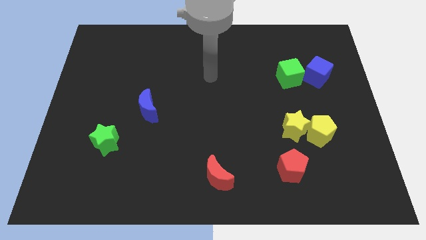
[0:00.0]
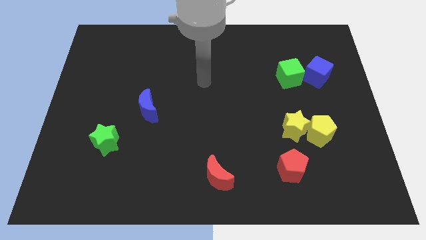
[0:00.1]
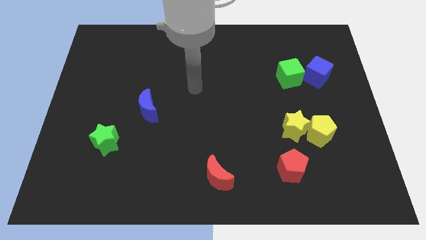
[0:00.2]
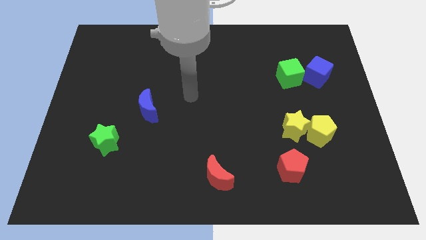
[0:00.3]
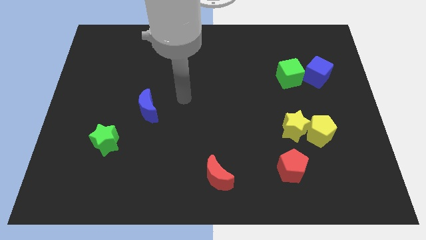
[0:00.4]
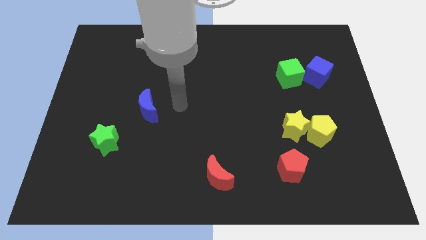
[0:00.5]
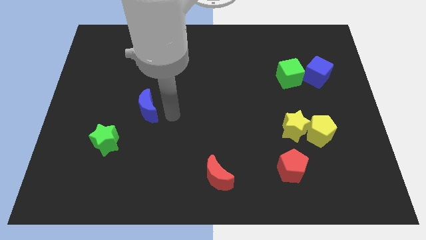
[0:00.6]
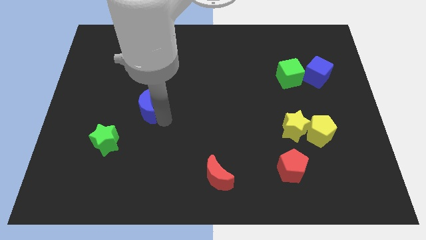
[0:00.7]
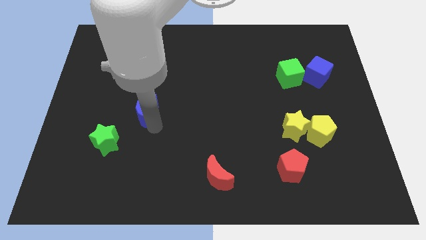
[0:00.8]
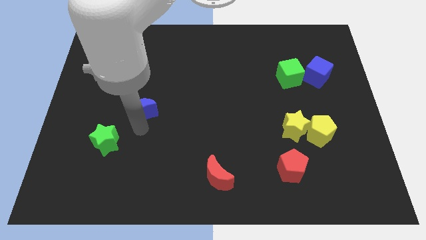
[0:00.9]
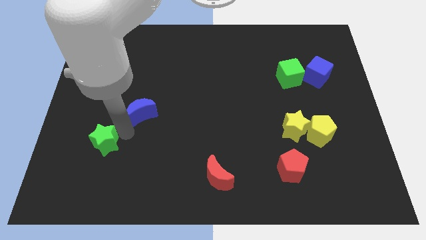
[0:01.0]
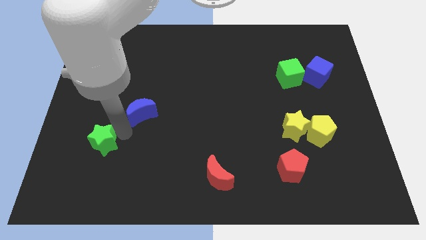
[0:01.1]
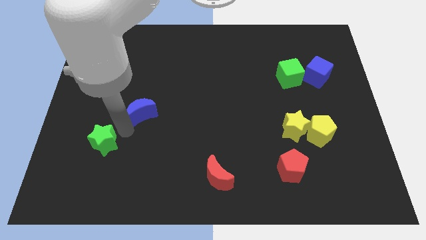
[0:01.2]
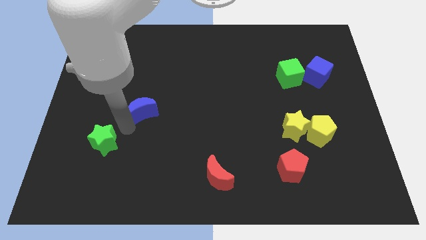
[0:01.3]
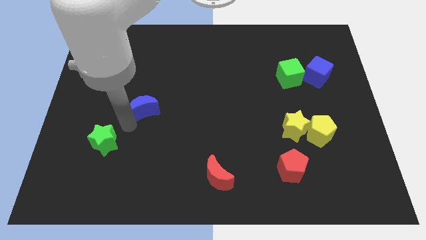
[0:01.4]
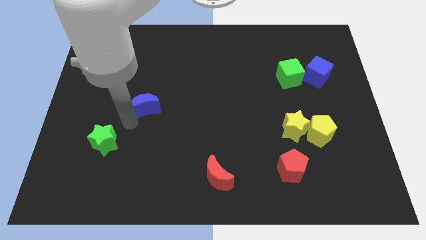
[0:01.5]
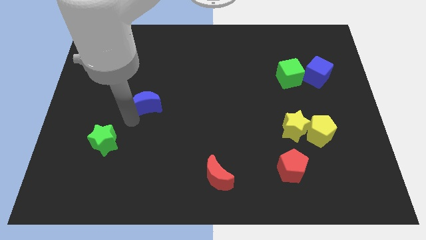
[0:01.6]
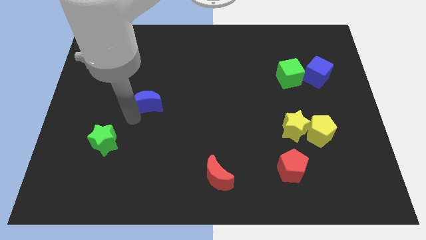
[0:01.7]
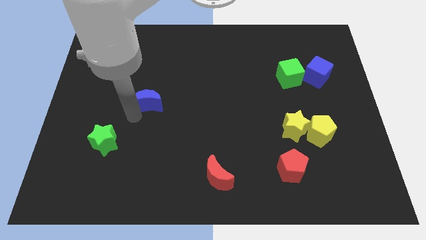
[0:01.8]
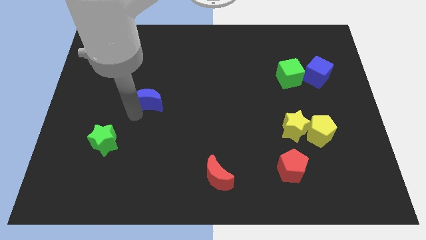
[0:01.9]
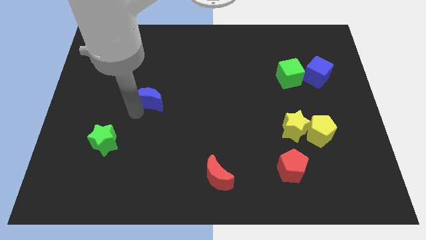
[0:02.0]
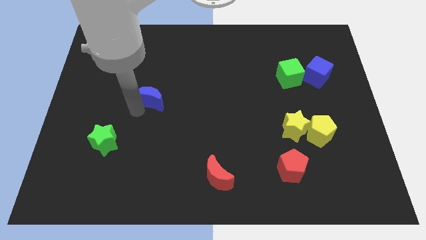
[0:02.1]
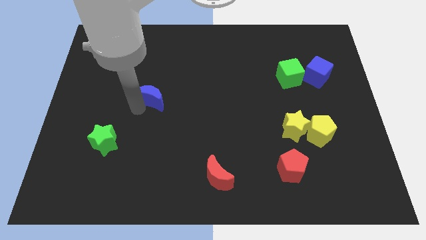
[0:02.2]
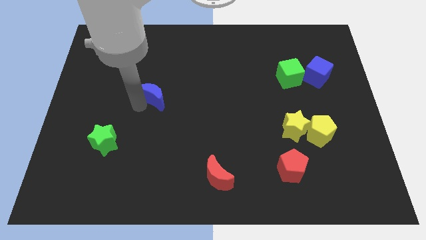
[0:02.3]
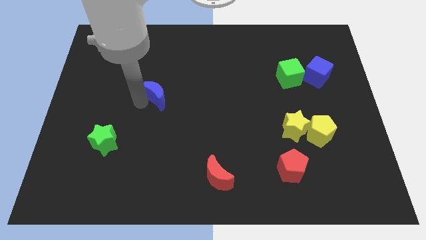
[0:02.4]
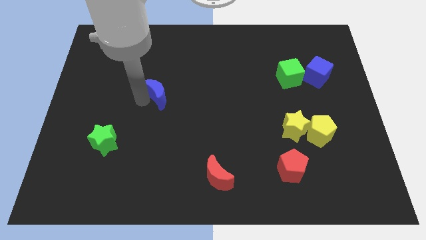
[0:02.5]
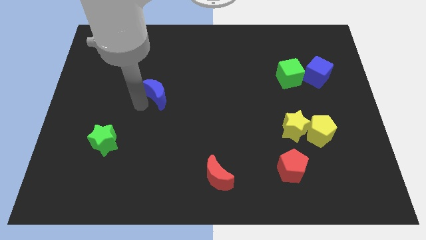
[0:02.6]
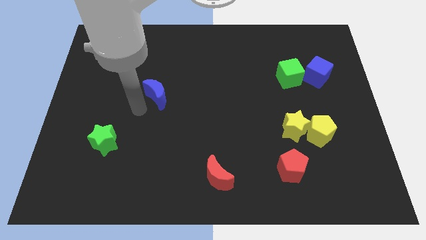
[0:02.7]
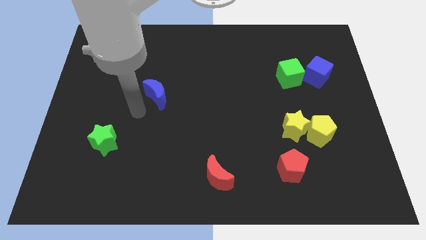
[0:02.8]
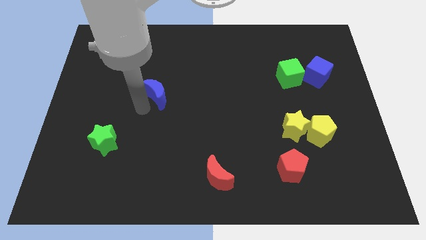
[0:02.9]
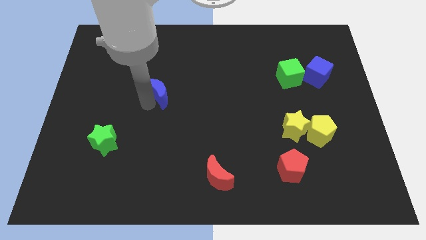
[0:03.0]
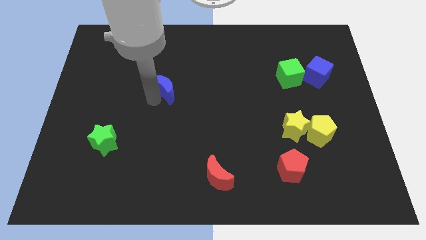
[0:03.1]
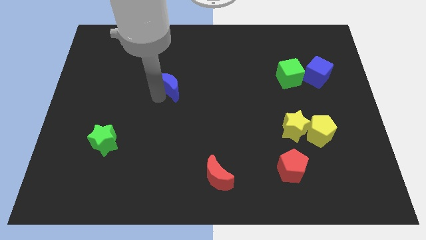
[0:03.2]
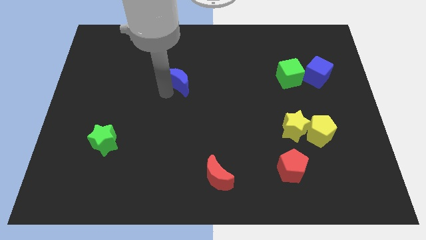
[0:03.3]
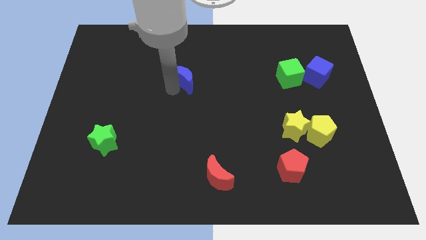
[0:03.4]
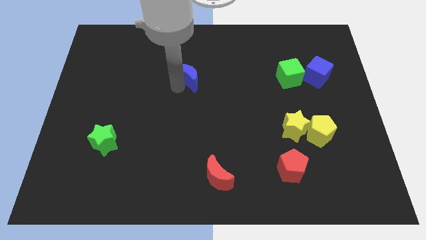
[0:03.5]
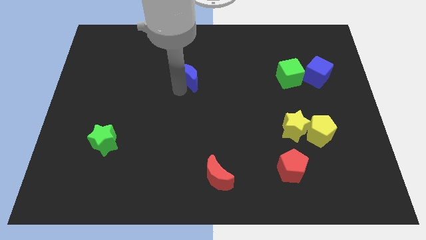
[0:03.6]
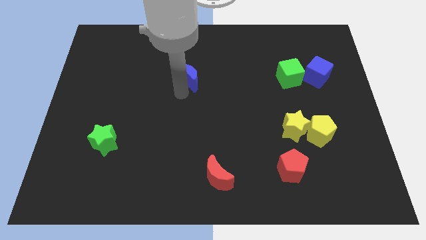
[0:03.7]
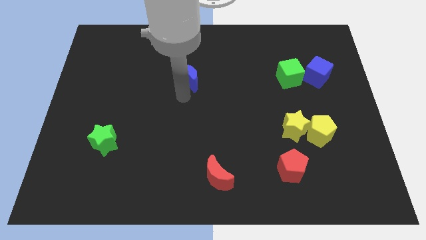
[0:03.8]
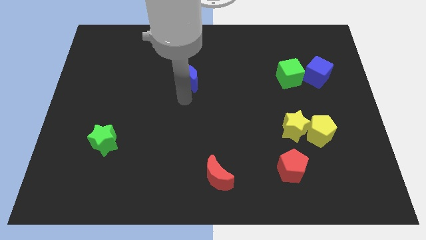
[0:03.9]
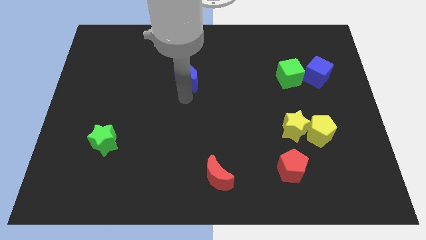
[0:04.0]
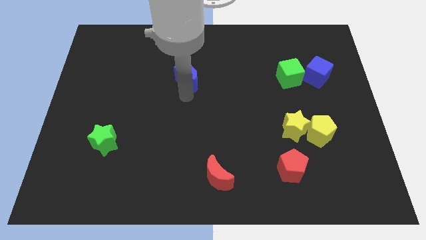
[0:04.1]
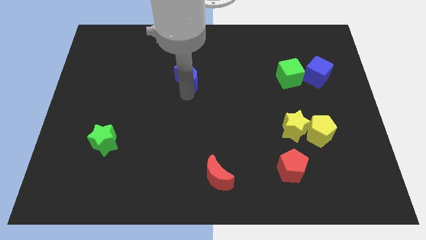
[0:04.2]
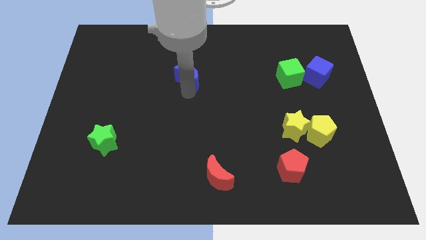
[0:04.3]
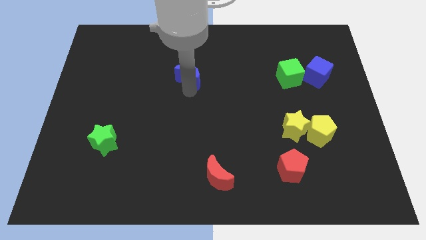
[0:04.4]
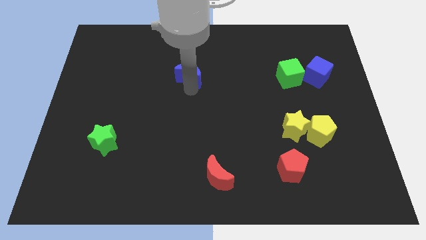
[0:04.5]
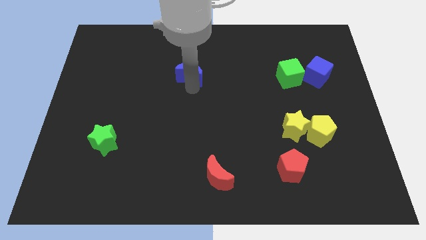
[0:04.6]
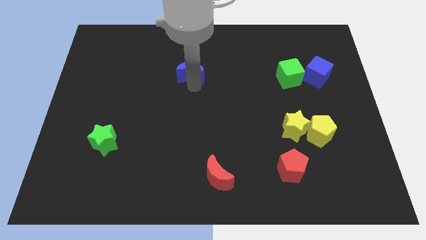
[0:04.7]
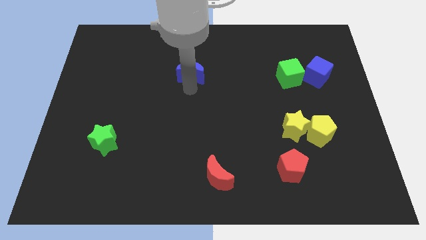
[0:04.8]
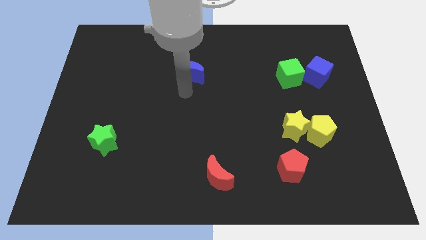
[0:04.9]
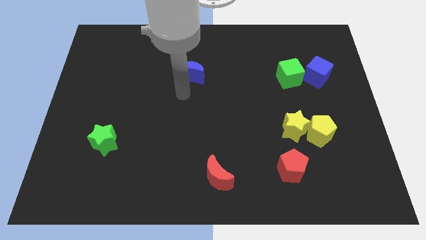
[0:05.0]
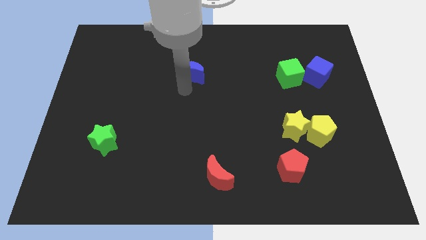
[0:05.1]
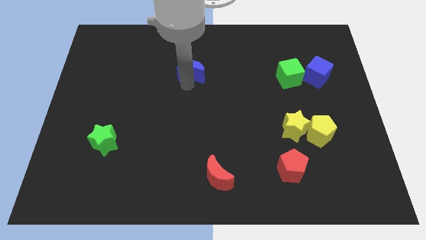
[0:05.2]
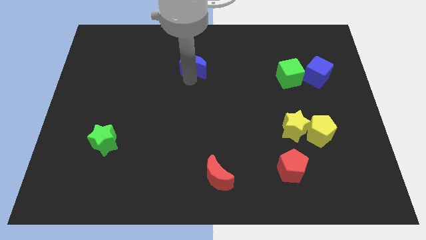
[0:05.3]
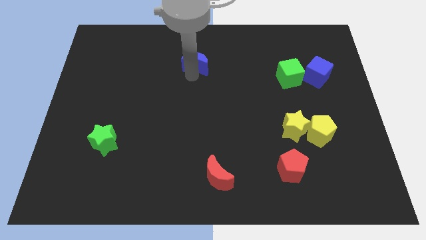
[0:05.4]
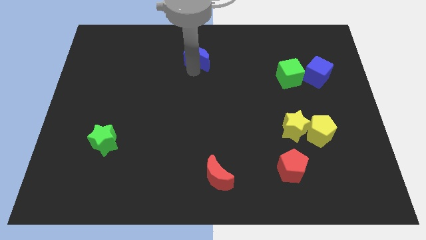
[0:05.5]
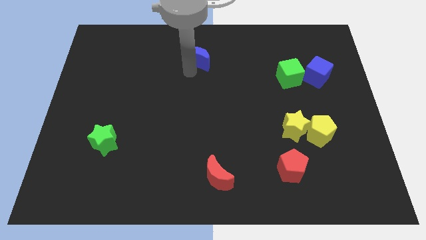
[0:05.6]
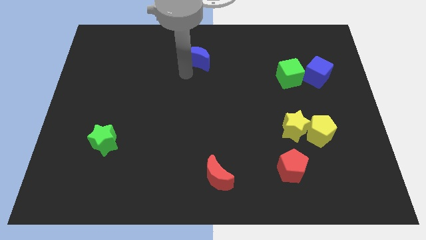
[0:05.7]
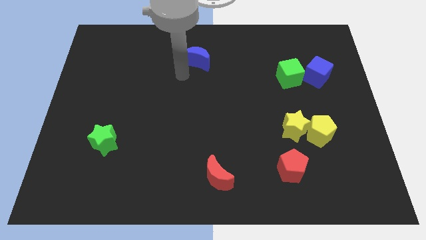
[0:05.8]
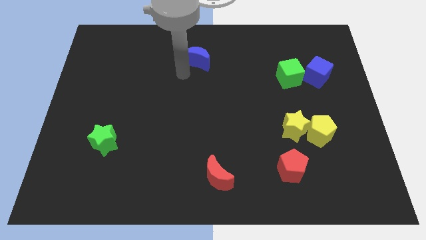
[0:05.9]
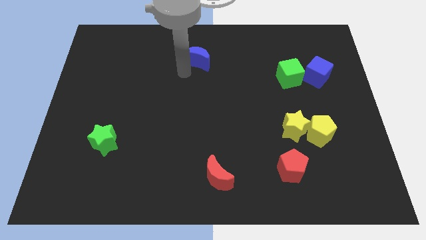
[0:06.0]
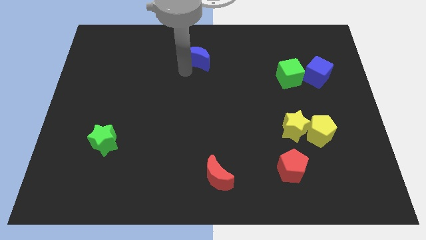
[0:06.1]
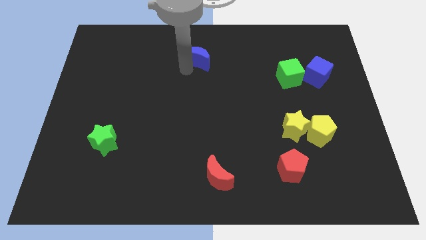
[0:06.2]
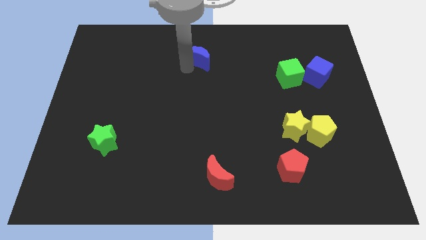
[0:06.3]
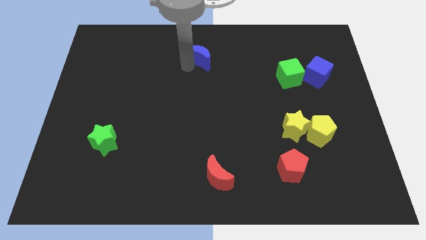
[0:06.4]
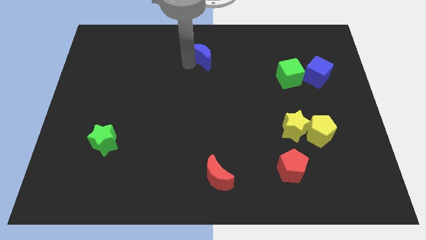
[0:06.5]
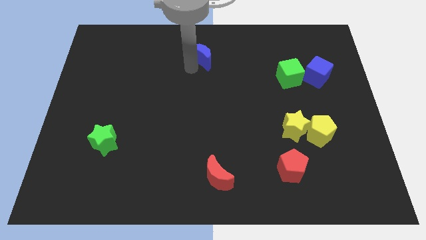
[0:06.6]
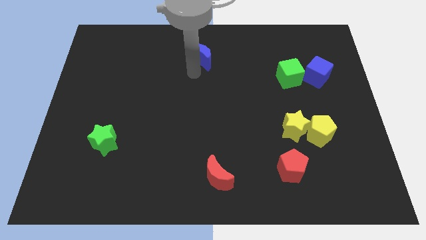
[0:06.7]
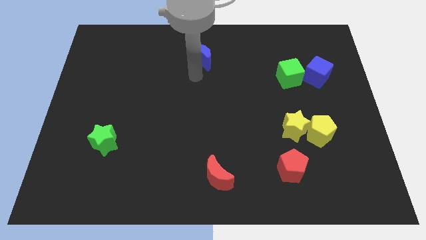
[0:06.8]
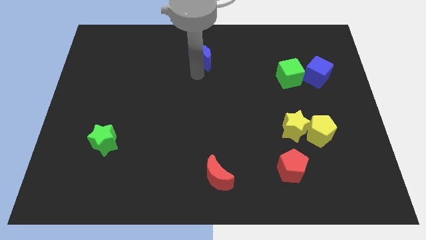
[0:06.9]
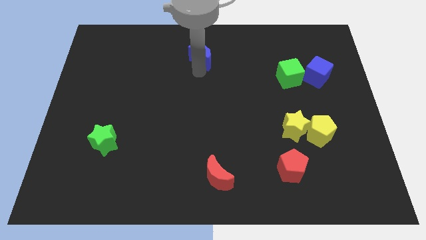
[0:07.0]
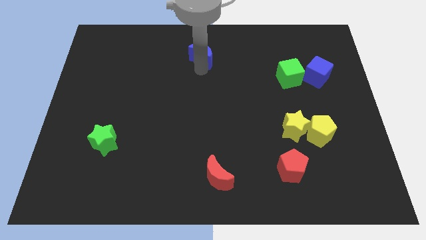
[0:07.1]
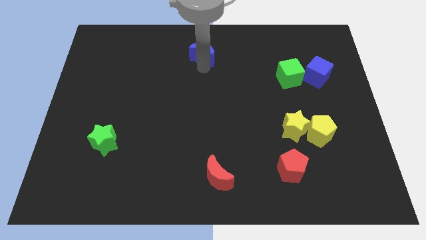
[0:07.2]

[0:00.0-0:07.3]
put the blue moon to the towards your base
